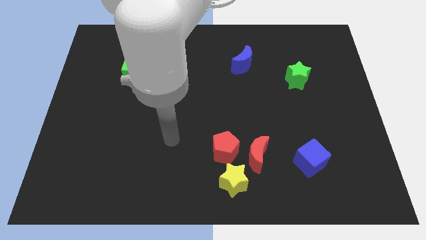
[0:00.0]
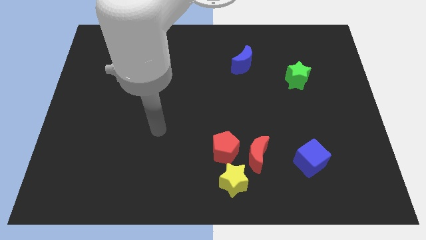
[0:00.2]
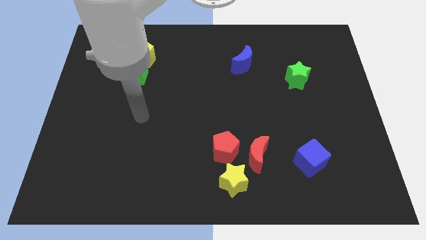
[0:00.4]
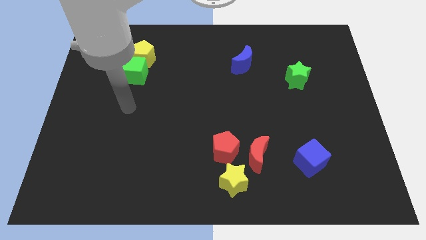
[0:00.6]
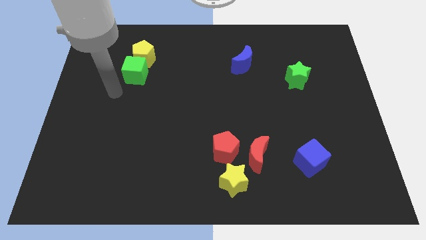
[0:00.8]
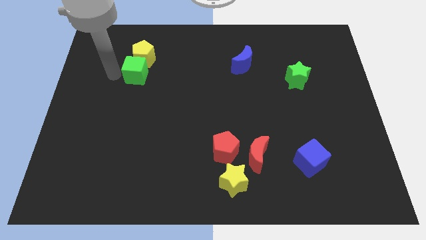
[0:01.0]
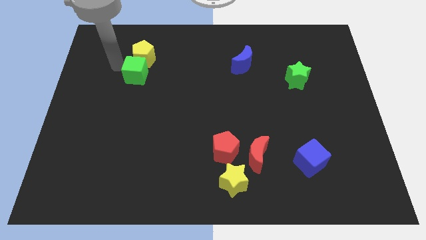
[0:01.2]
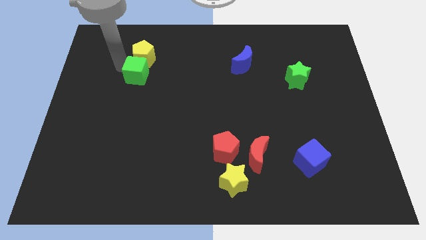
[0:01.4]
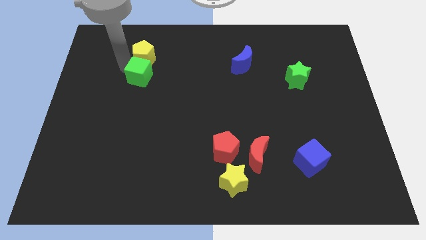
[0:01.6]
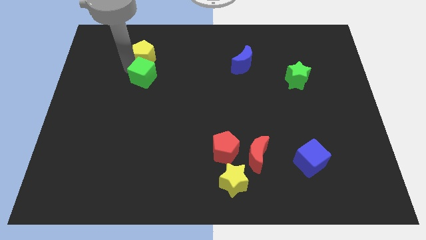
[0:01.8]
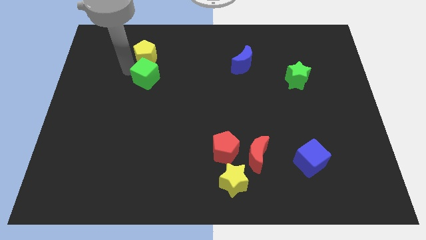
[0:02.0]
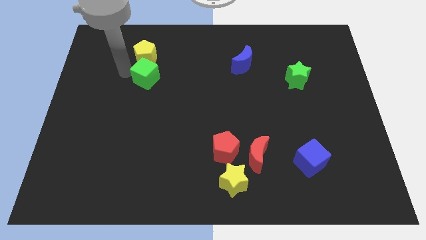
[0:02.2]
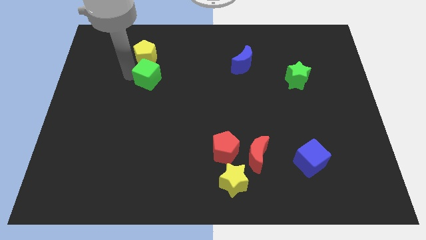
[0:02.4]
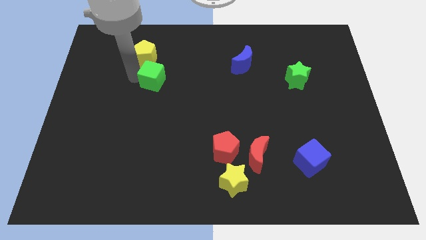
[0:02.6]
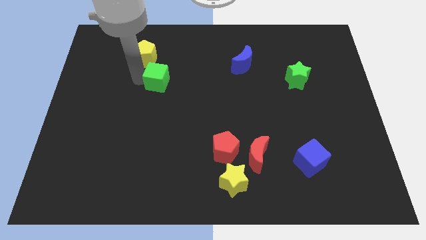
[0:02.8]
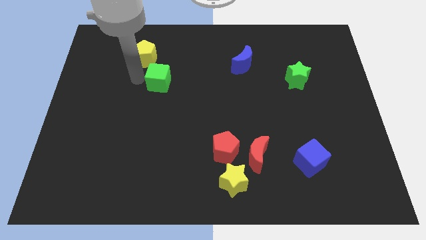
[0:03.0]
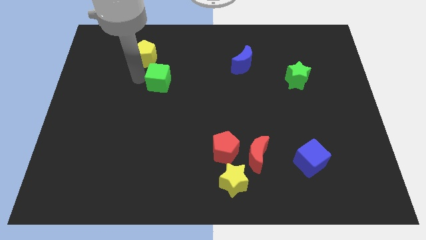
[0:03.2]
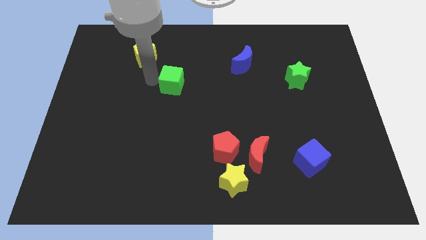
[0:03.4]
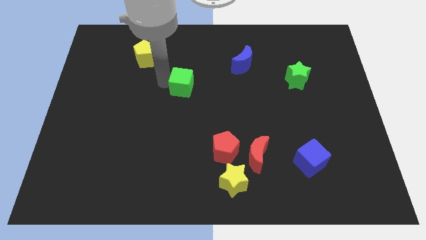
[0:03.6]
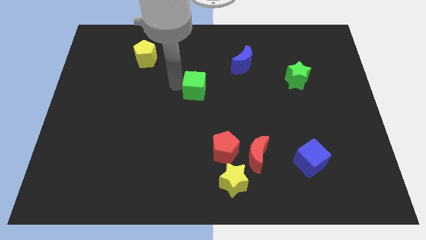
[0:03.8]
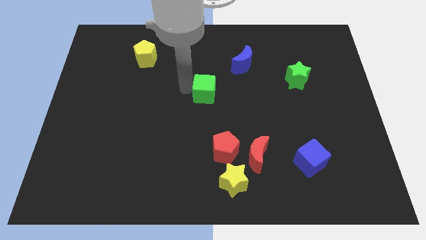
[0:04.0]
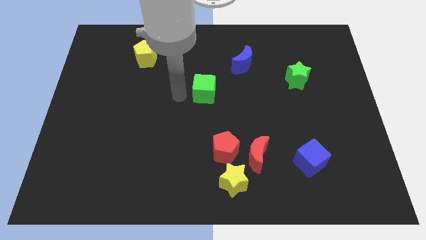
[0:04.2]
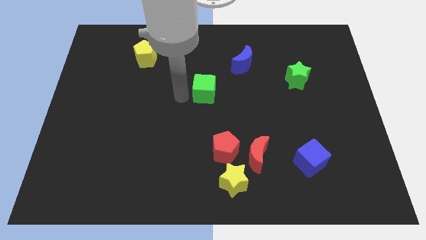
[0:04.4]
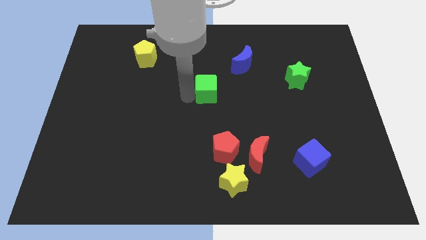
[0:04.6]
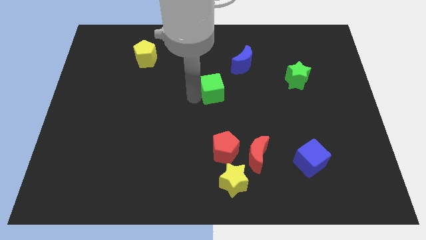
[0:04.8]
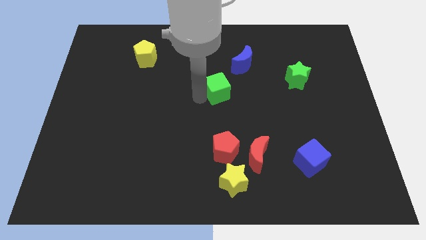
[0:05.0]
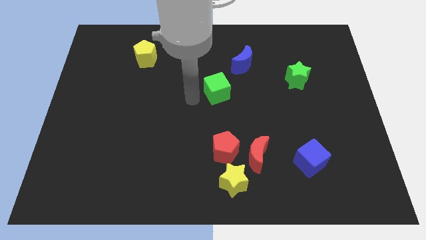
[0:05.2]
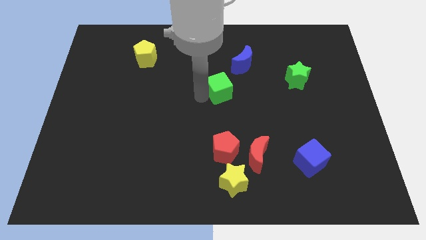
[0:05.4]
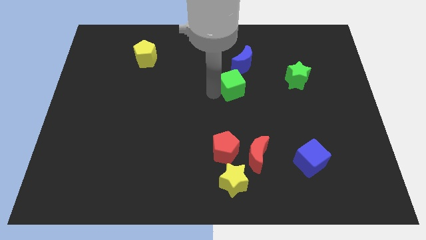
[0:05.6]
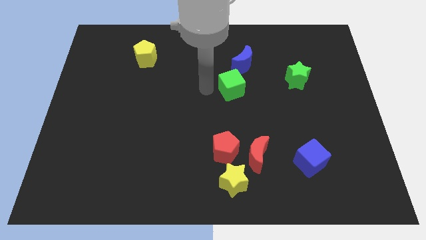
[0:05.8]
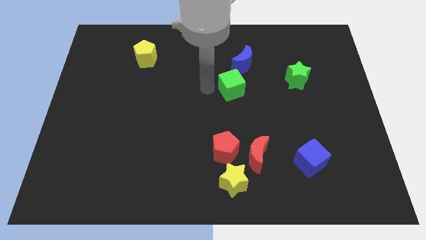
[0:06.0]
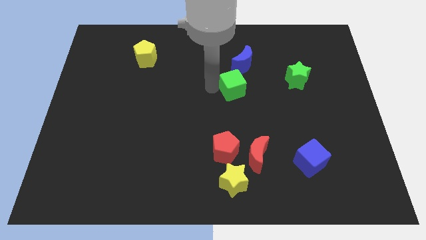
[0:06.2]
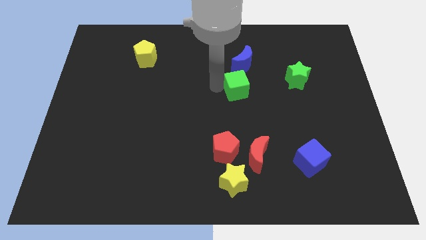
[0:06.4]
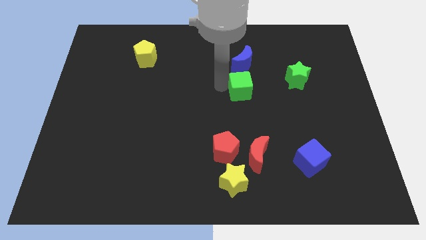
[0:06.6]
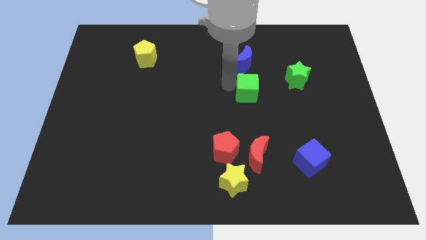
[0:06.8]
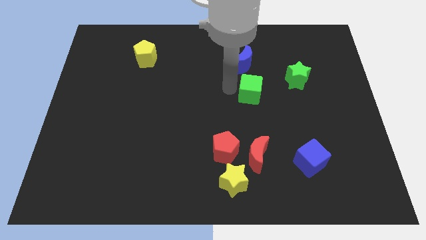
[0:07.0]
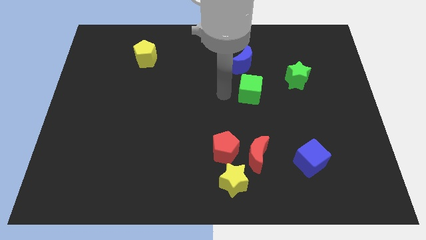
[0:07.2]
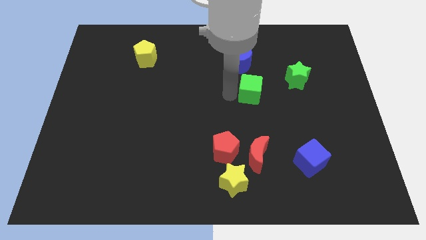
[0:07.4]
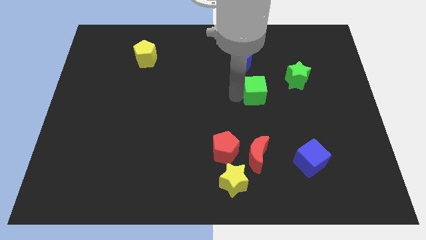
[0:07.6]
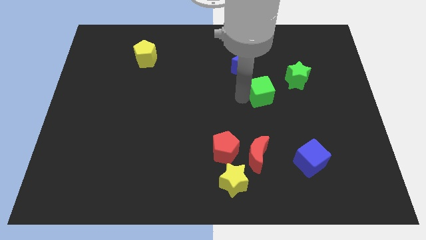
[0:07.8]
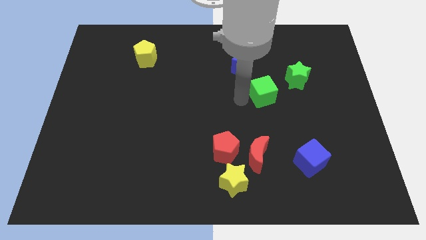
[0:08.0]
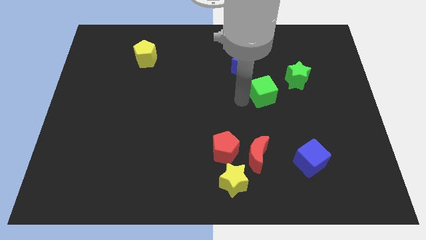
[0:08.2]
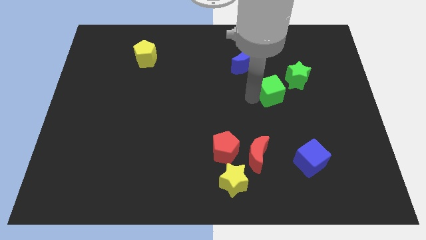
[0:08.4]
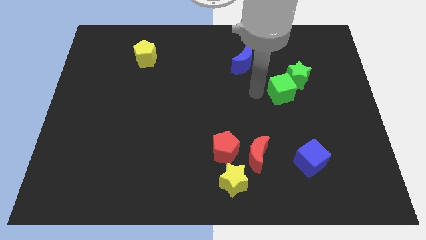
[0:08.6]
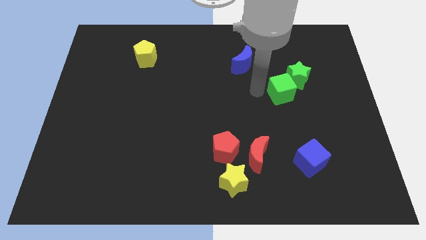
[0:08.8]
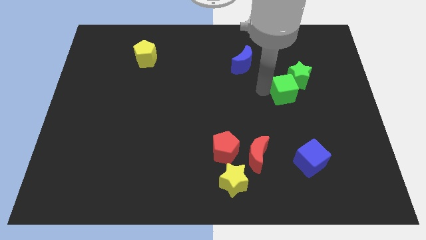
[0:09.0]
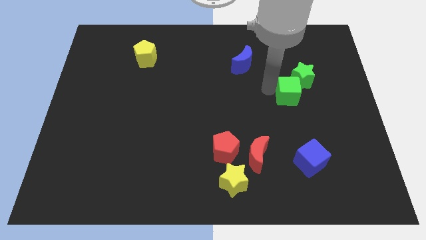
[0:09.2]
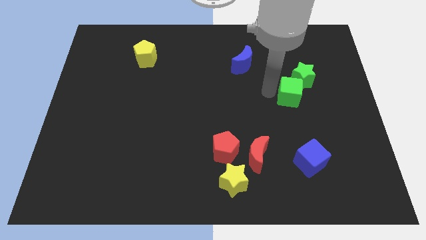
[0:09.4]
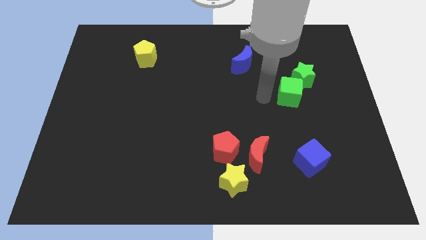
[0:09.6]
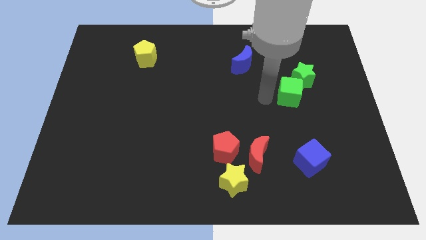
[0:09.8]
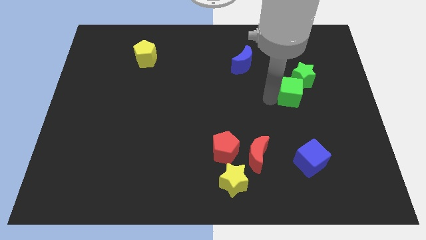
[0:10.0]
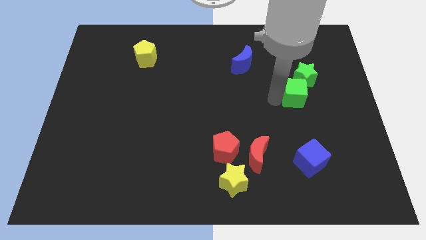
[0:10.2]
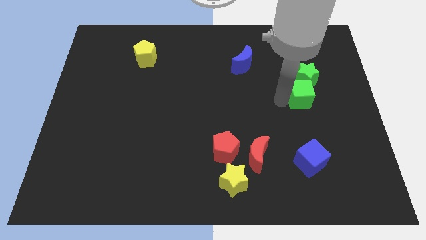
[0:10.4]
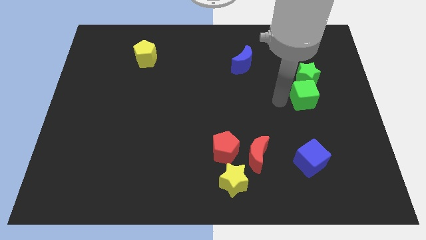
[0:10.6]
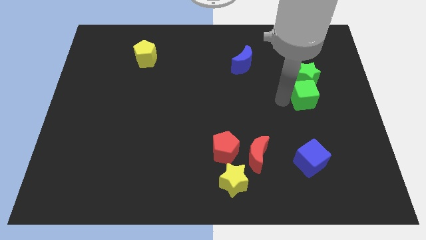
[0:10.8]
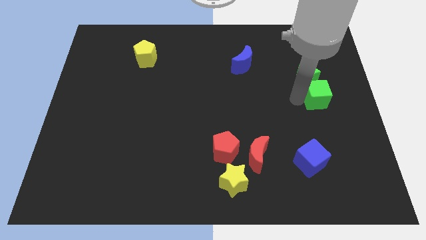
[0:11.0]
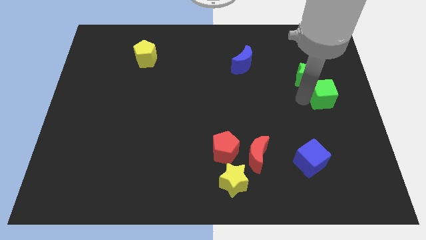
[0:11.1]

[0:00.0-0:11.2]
push the green cube to the right side of the board
